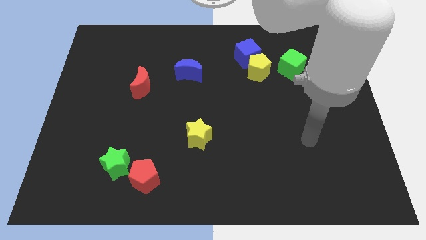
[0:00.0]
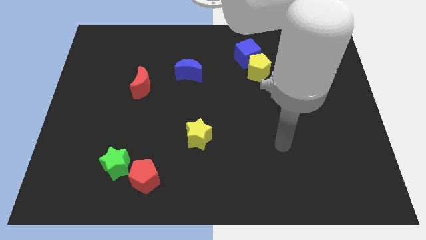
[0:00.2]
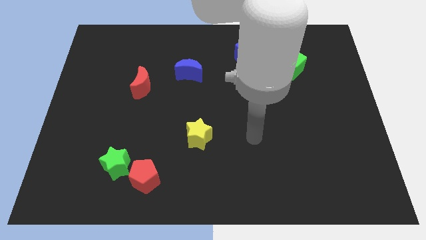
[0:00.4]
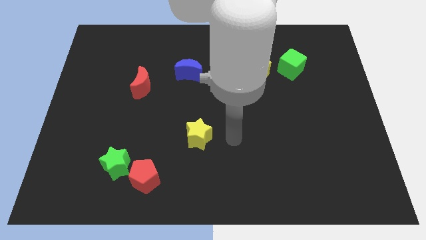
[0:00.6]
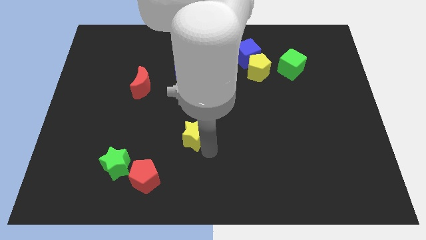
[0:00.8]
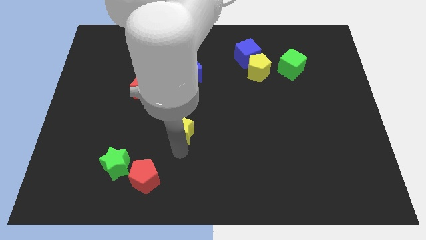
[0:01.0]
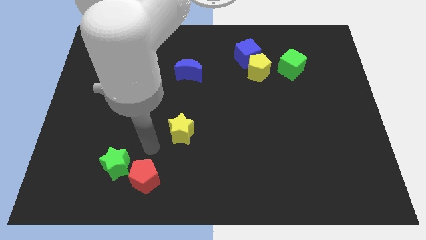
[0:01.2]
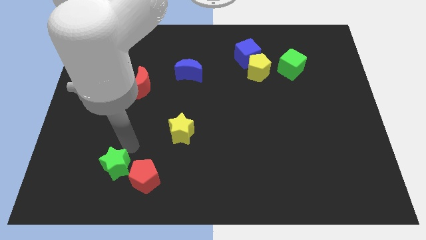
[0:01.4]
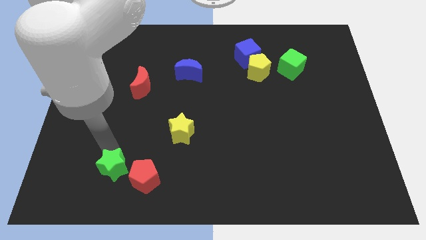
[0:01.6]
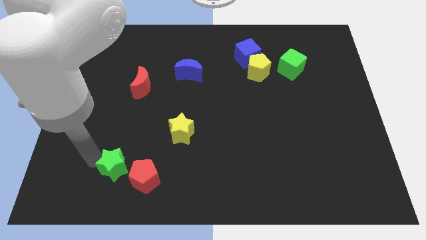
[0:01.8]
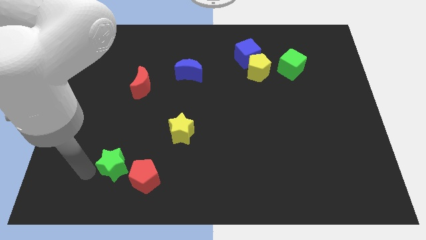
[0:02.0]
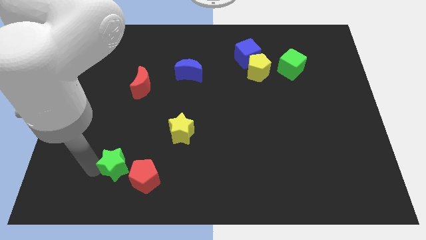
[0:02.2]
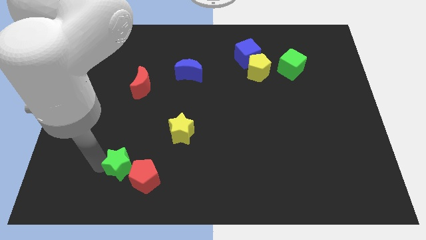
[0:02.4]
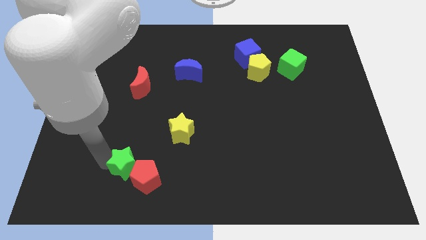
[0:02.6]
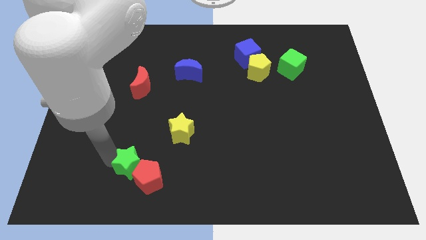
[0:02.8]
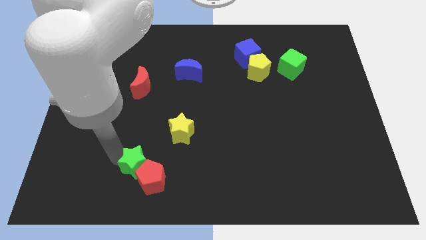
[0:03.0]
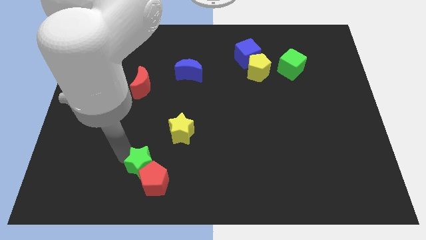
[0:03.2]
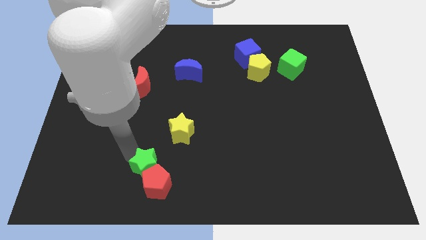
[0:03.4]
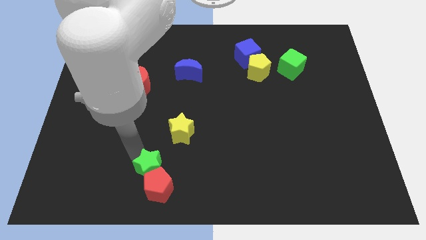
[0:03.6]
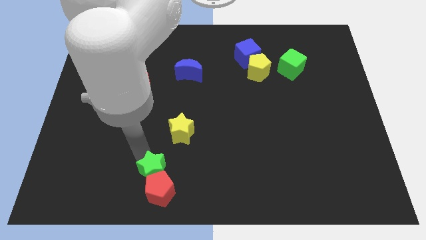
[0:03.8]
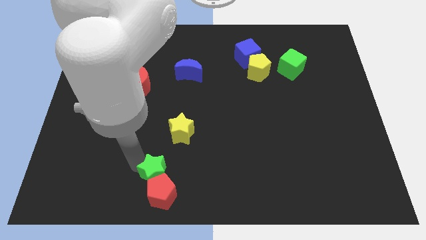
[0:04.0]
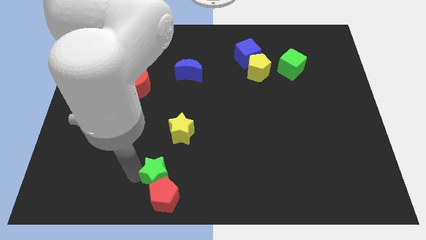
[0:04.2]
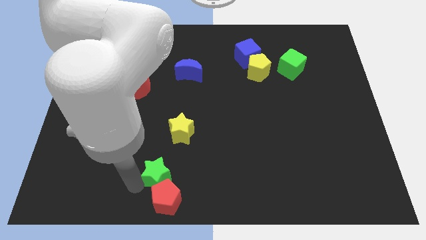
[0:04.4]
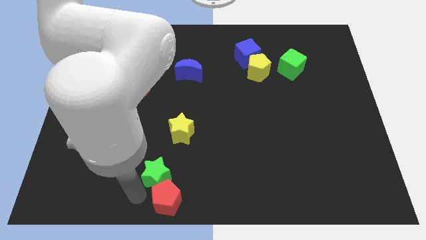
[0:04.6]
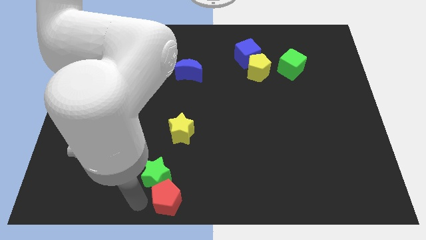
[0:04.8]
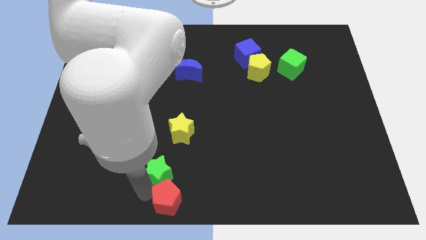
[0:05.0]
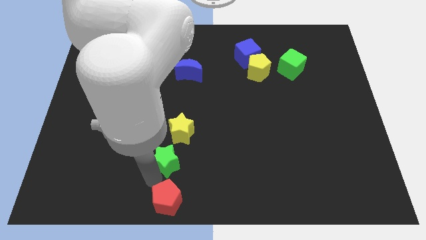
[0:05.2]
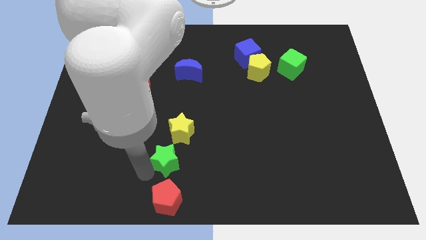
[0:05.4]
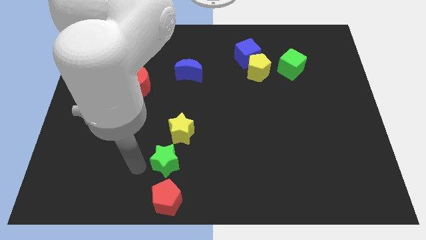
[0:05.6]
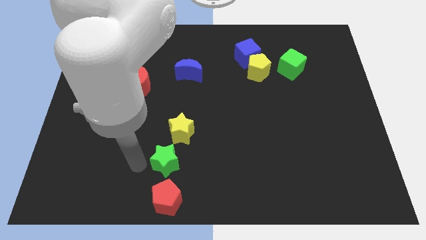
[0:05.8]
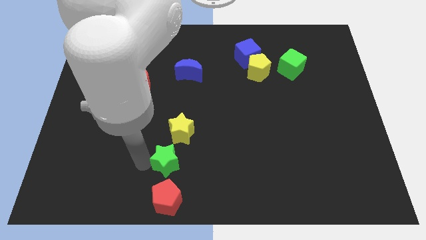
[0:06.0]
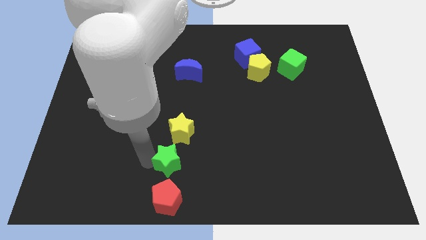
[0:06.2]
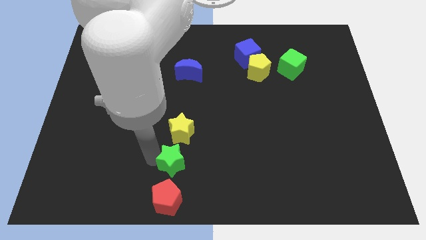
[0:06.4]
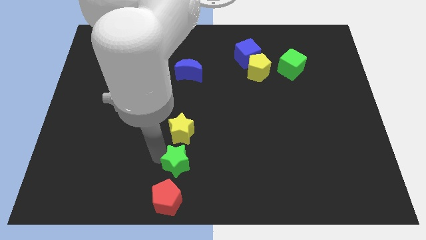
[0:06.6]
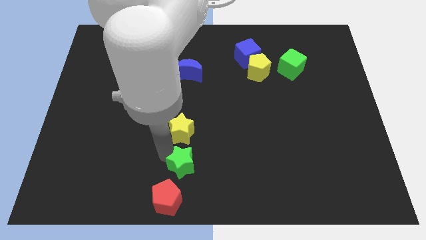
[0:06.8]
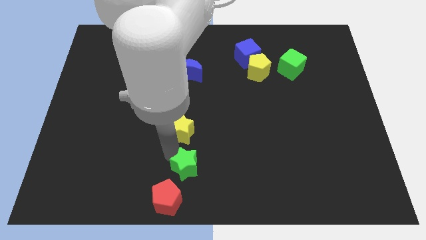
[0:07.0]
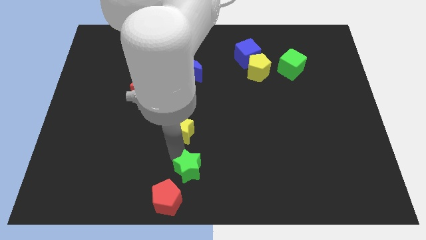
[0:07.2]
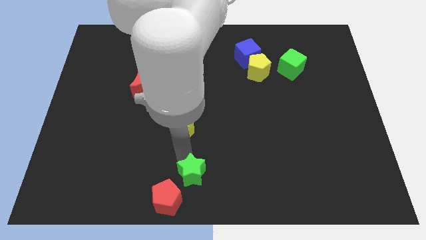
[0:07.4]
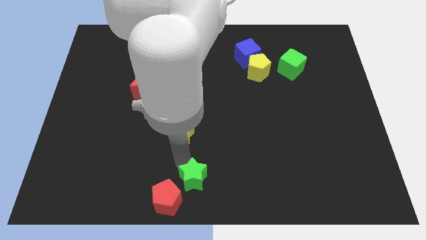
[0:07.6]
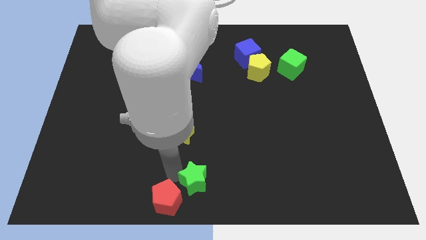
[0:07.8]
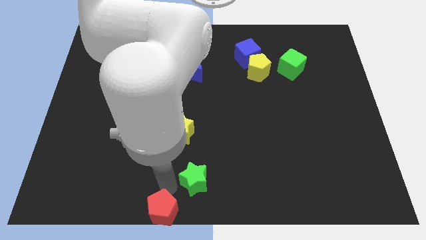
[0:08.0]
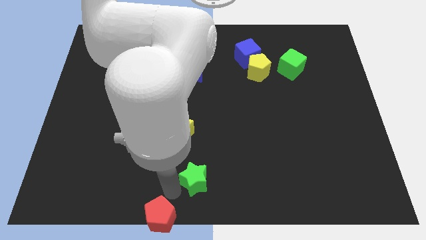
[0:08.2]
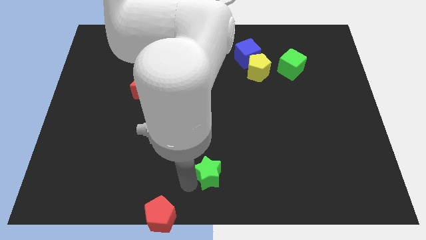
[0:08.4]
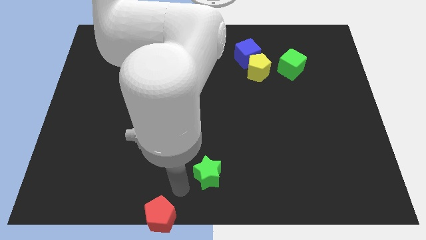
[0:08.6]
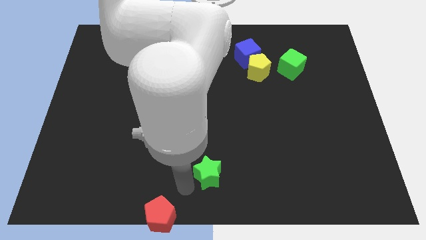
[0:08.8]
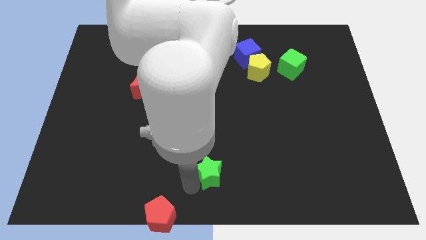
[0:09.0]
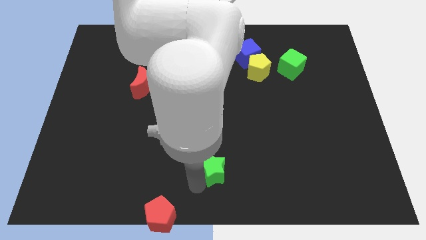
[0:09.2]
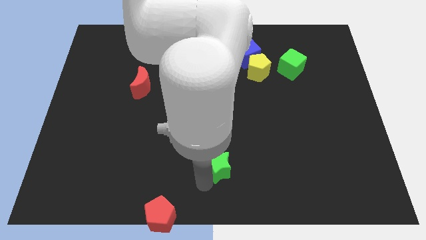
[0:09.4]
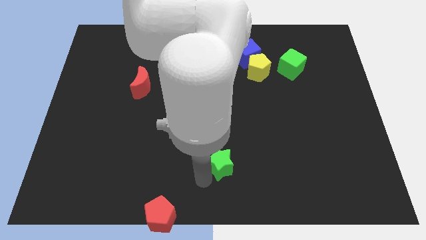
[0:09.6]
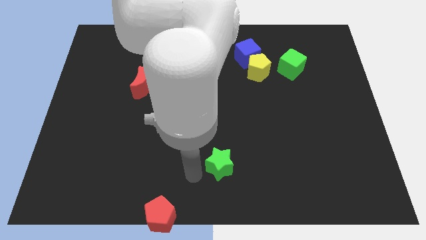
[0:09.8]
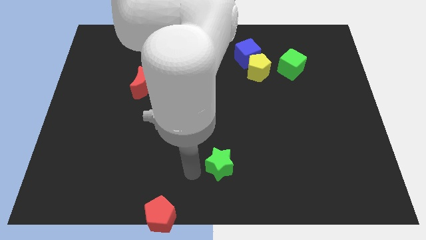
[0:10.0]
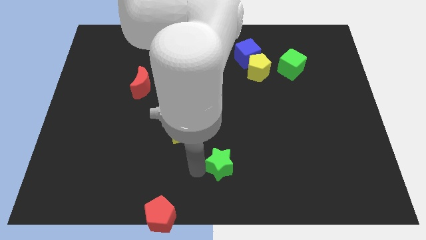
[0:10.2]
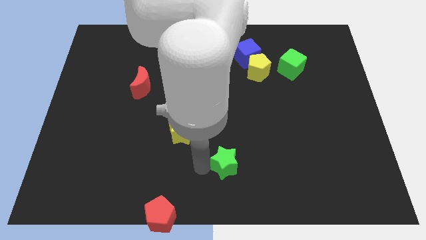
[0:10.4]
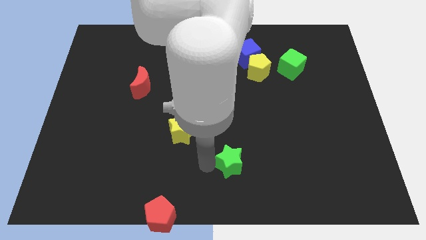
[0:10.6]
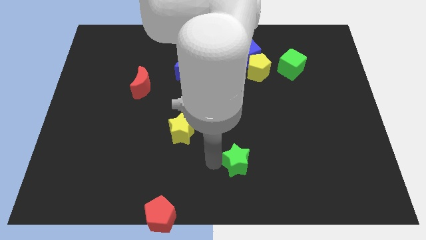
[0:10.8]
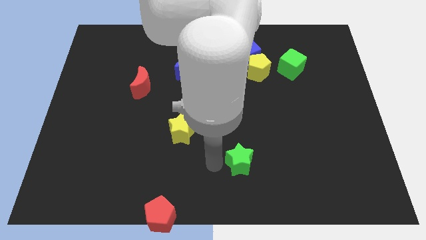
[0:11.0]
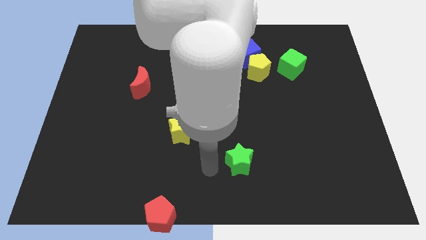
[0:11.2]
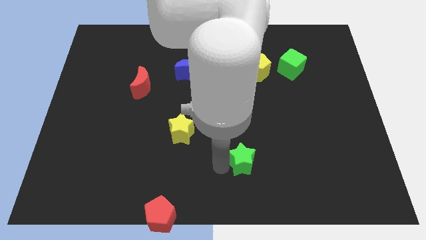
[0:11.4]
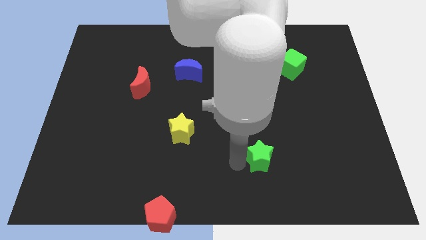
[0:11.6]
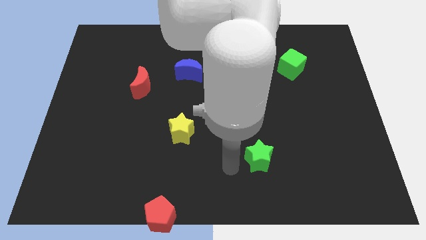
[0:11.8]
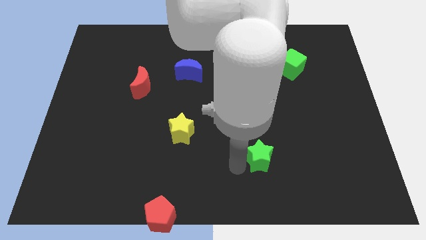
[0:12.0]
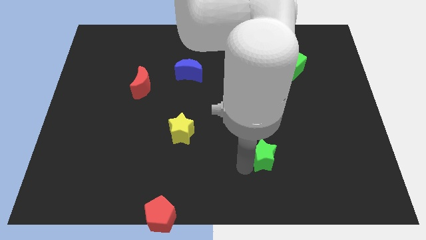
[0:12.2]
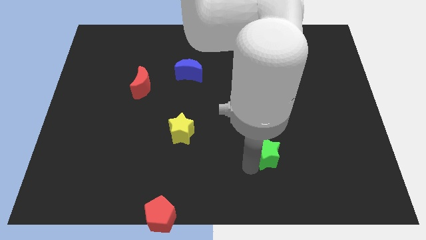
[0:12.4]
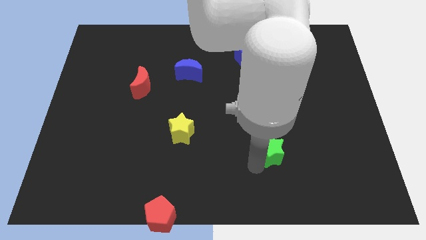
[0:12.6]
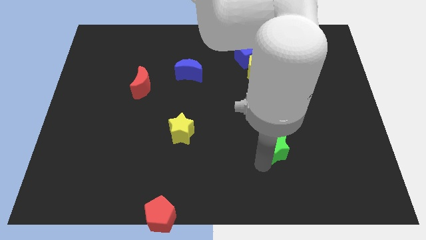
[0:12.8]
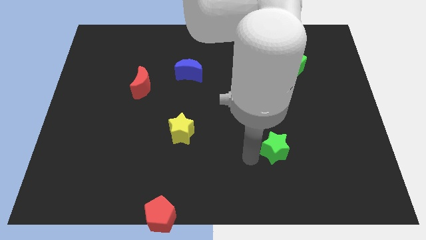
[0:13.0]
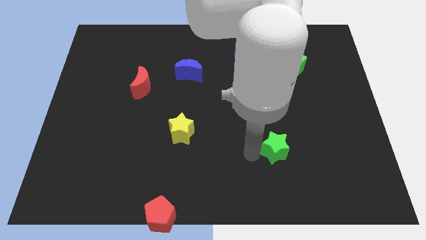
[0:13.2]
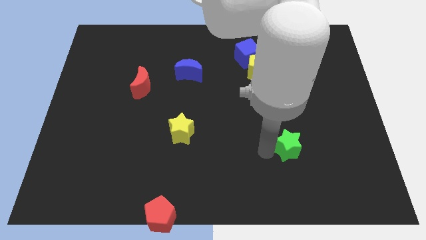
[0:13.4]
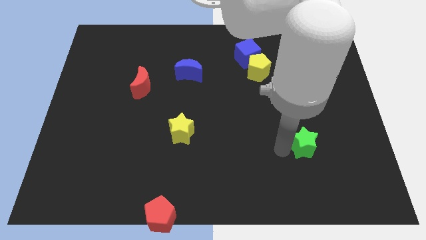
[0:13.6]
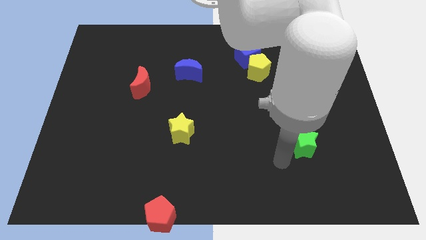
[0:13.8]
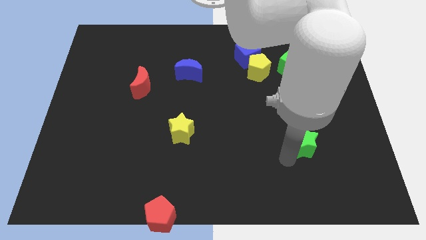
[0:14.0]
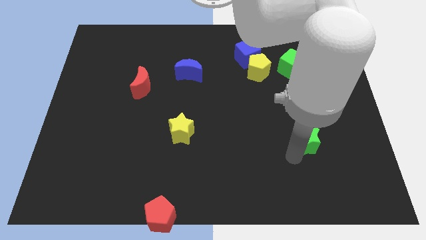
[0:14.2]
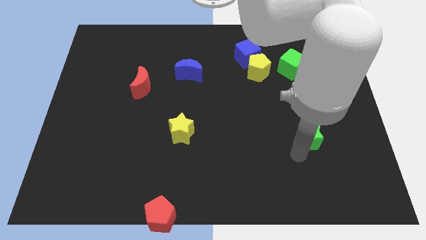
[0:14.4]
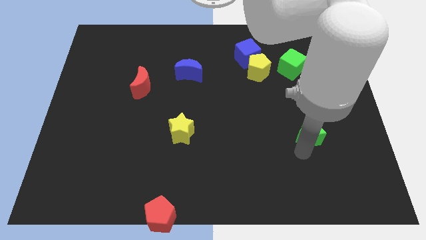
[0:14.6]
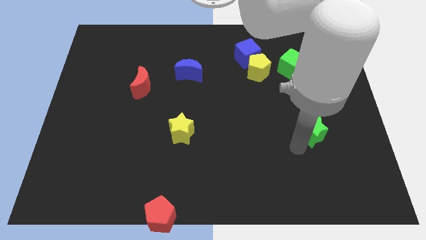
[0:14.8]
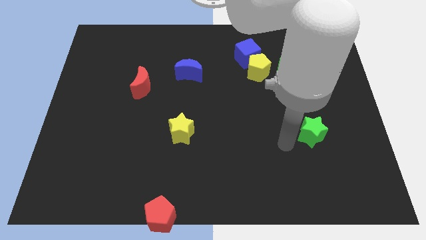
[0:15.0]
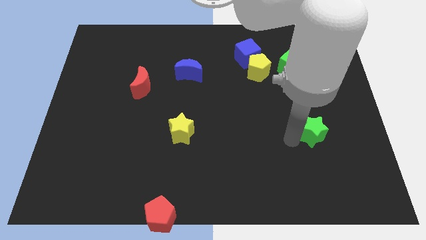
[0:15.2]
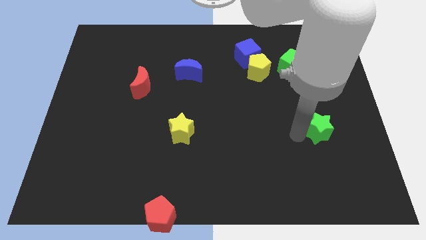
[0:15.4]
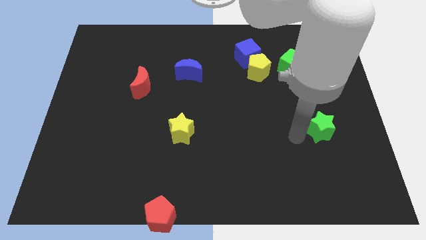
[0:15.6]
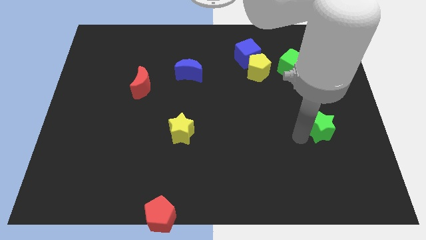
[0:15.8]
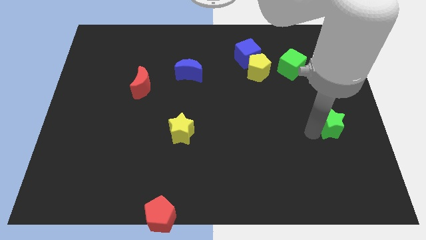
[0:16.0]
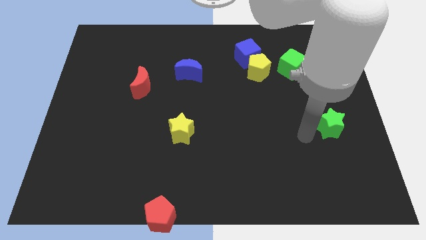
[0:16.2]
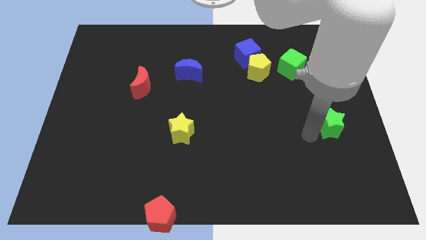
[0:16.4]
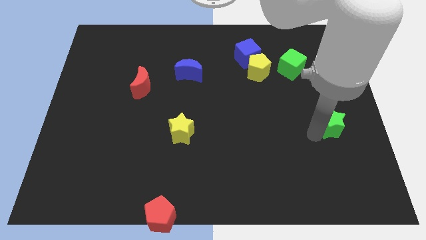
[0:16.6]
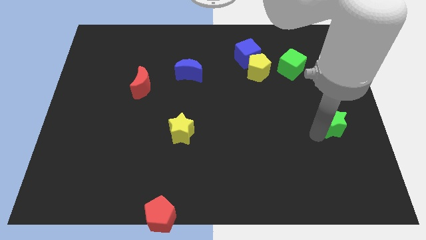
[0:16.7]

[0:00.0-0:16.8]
push the green star to the right side of the board
